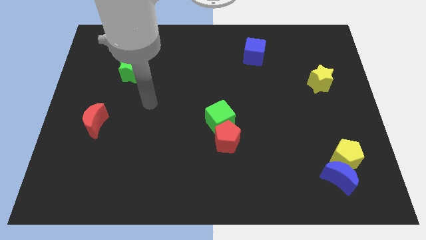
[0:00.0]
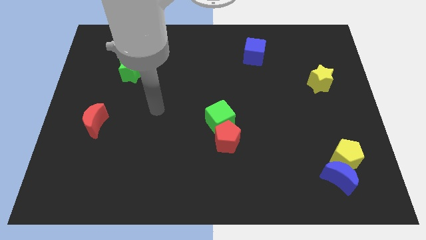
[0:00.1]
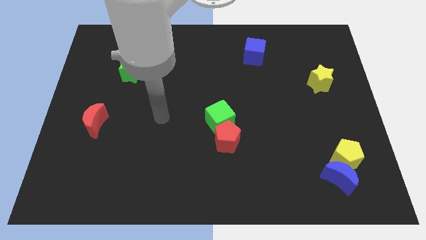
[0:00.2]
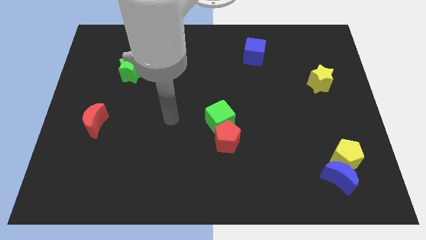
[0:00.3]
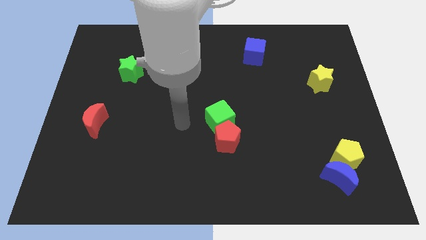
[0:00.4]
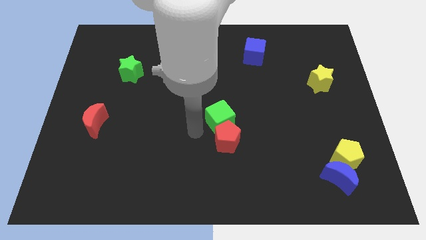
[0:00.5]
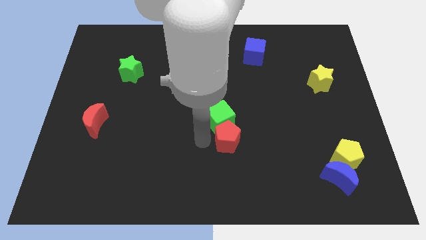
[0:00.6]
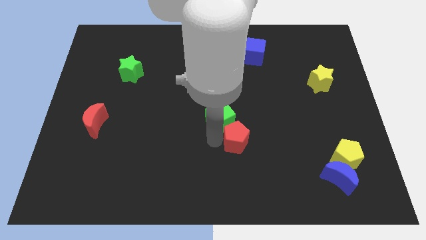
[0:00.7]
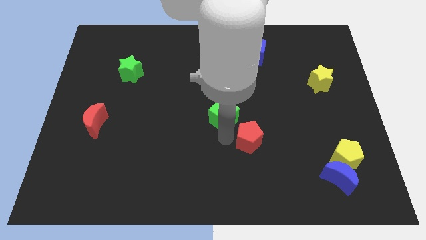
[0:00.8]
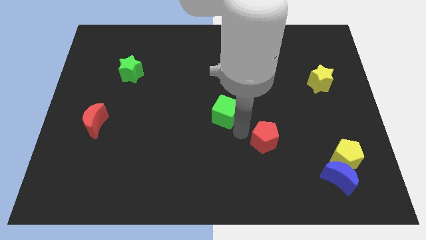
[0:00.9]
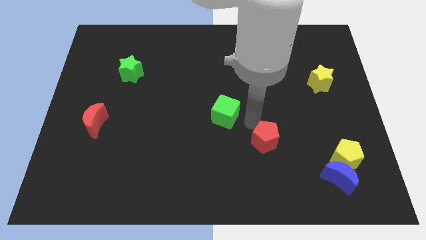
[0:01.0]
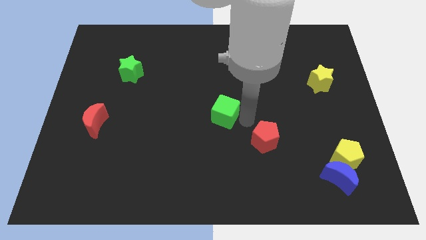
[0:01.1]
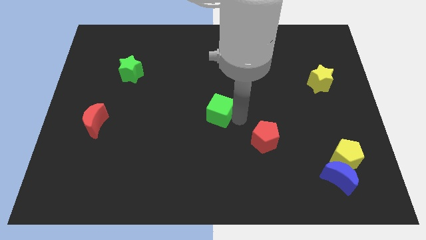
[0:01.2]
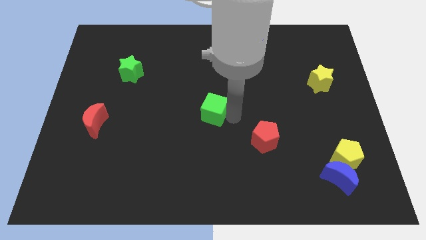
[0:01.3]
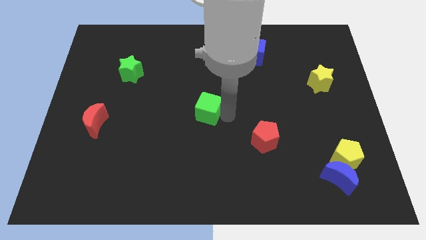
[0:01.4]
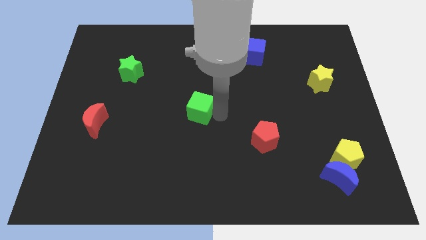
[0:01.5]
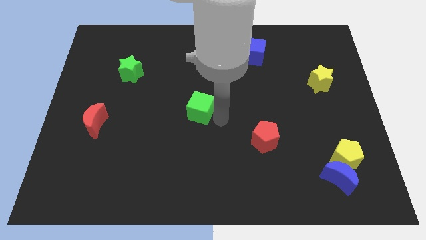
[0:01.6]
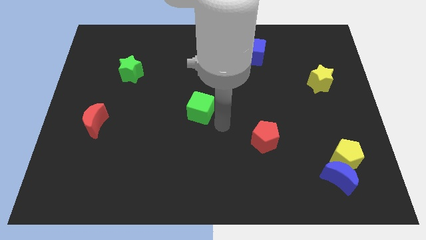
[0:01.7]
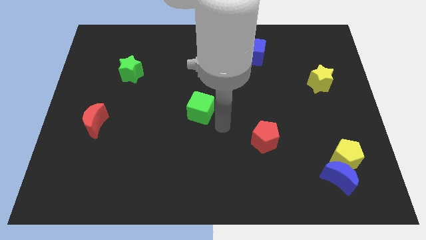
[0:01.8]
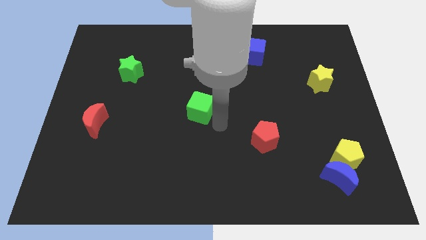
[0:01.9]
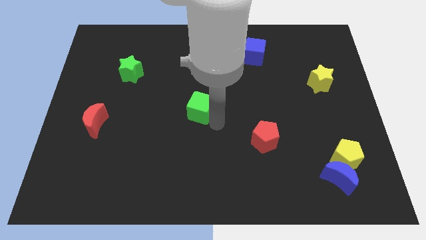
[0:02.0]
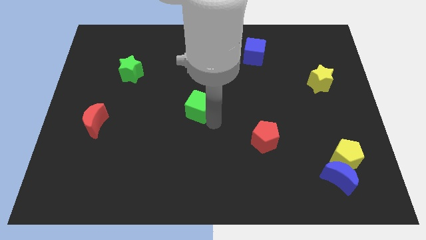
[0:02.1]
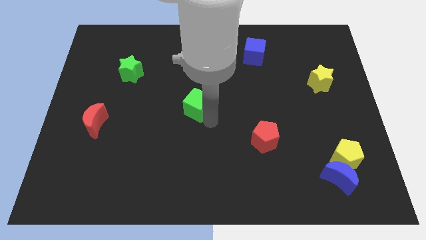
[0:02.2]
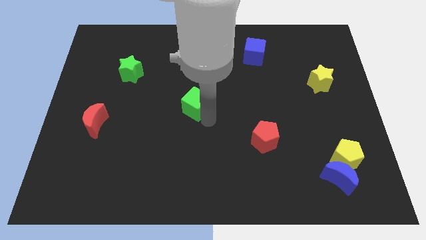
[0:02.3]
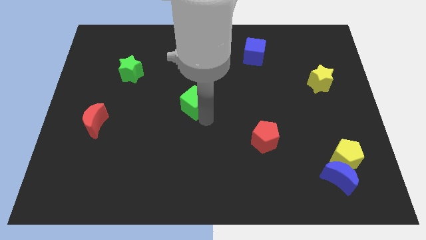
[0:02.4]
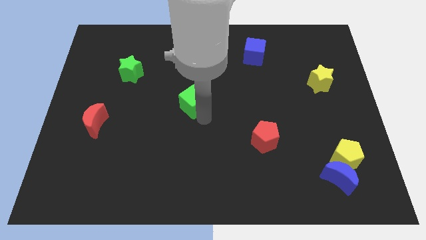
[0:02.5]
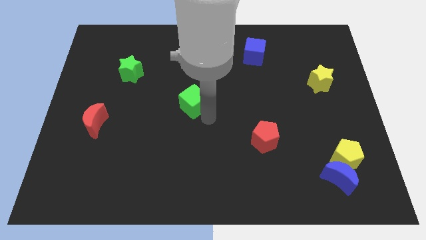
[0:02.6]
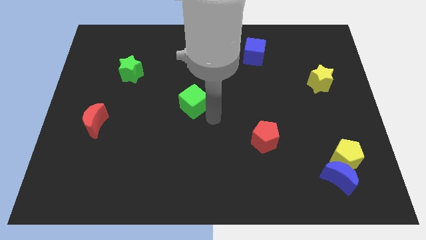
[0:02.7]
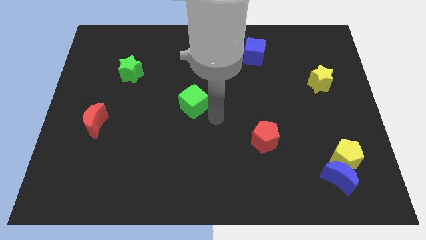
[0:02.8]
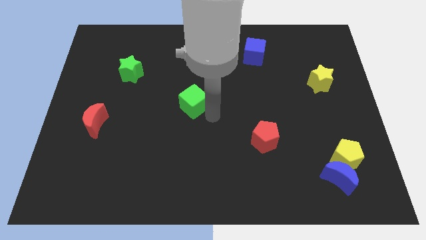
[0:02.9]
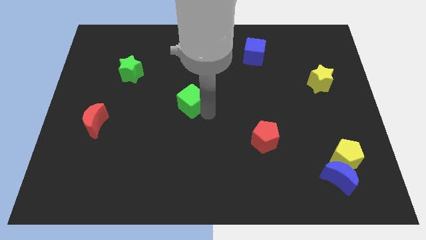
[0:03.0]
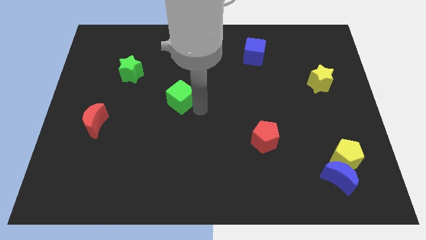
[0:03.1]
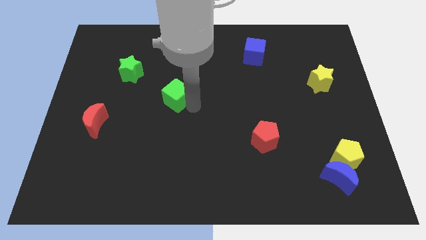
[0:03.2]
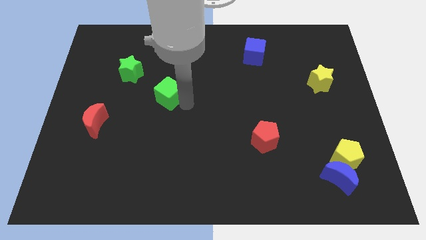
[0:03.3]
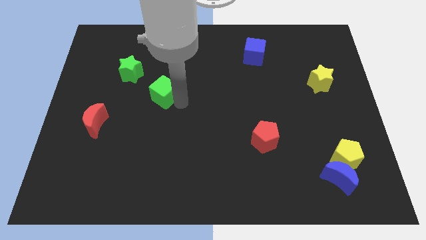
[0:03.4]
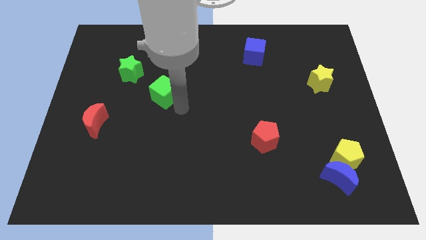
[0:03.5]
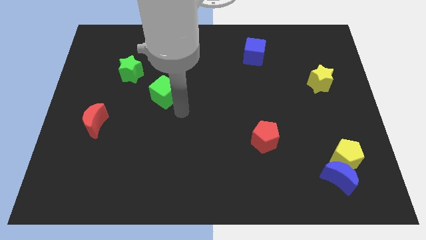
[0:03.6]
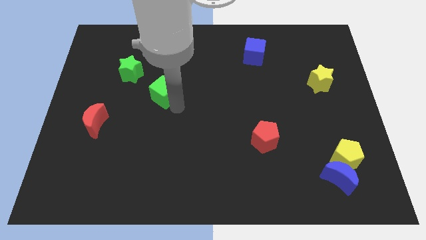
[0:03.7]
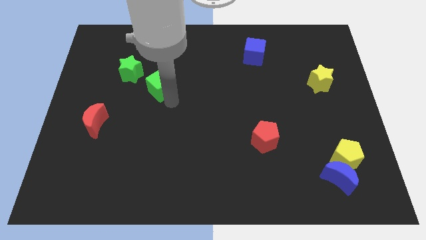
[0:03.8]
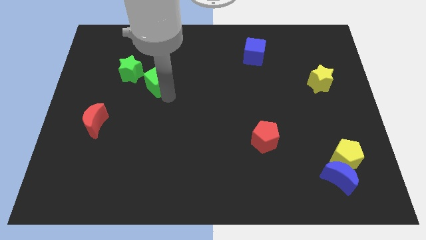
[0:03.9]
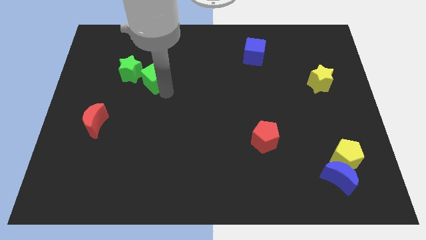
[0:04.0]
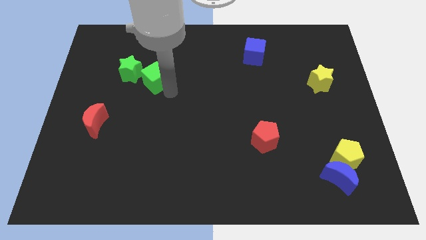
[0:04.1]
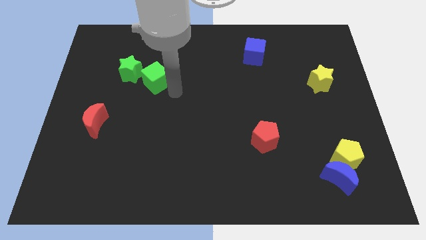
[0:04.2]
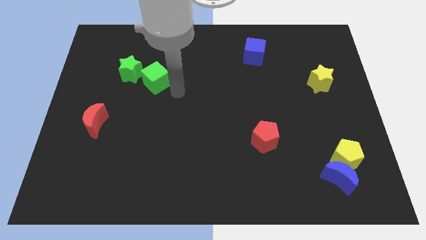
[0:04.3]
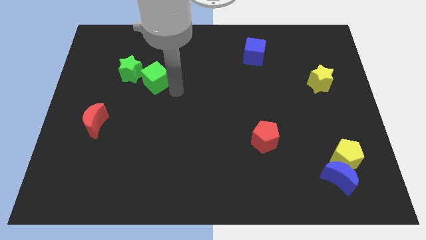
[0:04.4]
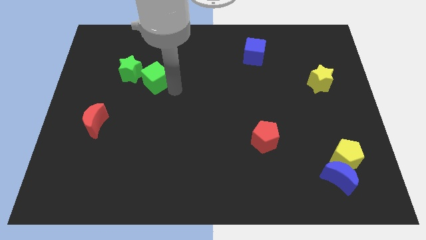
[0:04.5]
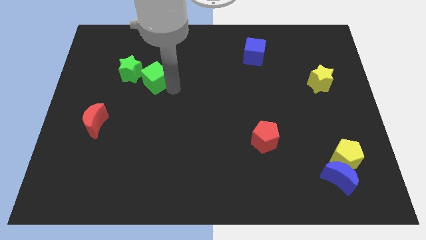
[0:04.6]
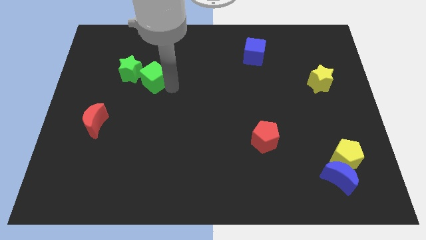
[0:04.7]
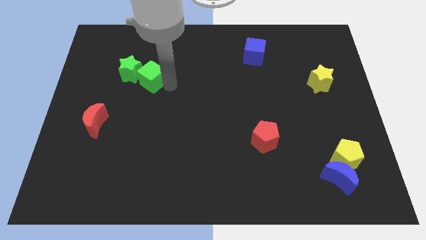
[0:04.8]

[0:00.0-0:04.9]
push the green cube towards the green star

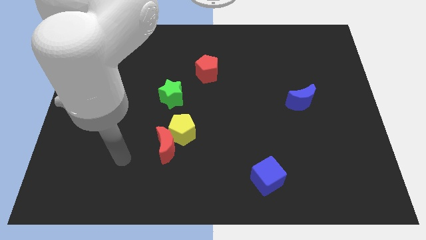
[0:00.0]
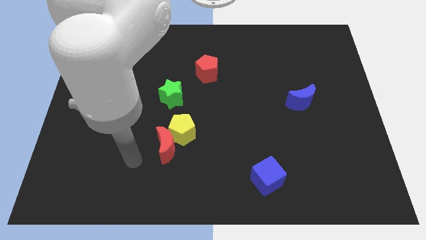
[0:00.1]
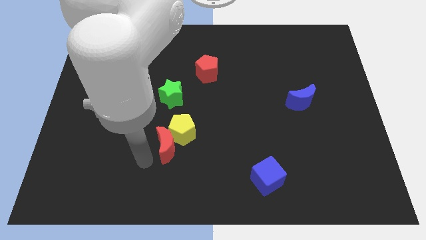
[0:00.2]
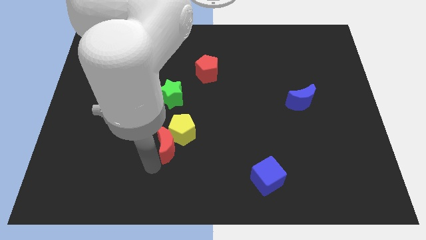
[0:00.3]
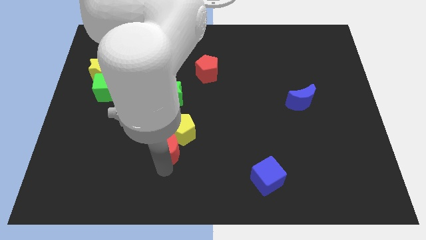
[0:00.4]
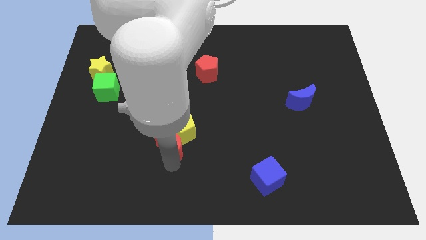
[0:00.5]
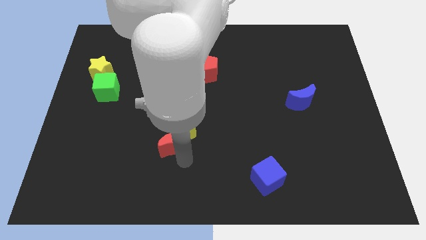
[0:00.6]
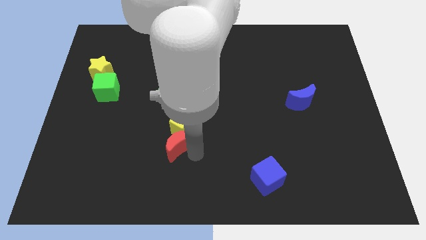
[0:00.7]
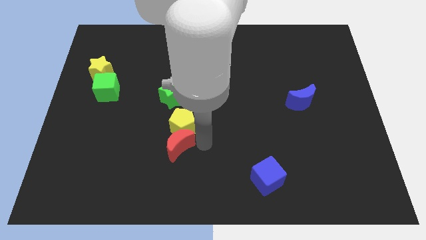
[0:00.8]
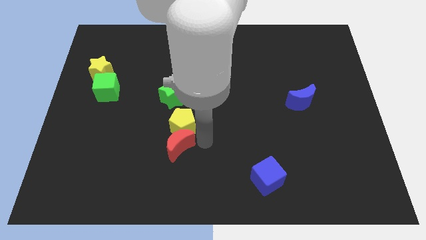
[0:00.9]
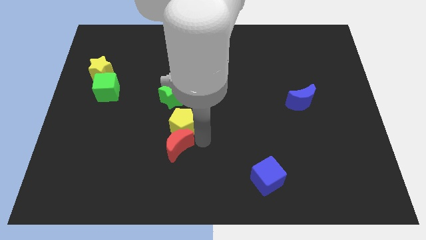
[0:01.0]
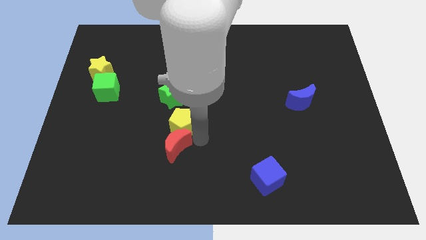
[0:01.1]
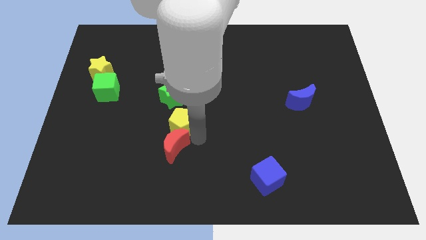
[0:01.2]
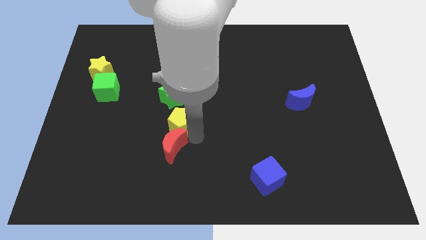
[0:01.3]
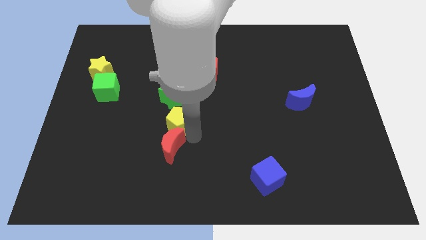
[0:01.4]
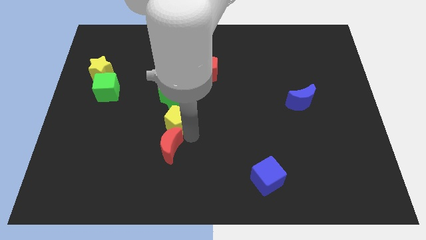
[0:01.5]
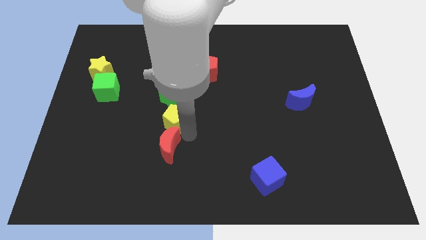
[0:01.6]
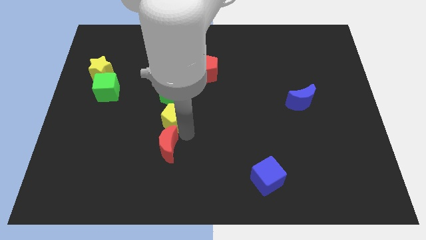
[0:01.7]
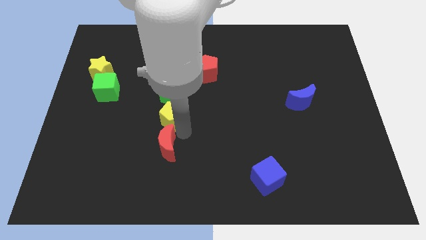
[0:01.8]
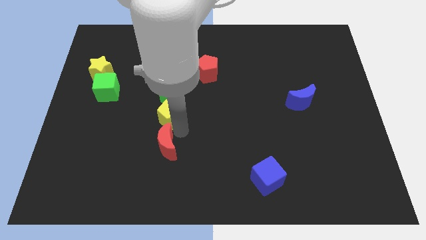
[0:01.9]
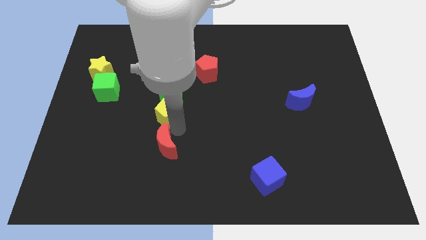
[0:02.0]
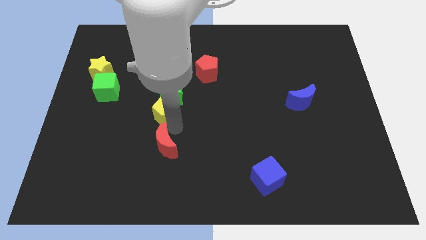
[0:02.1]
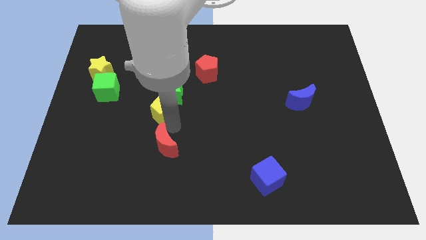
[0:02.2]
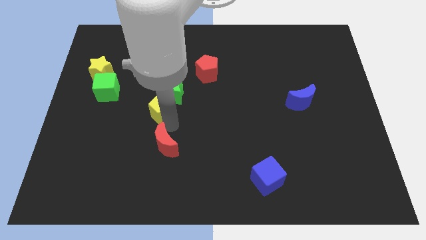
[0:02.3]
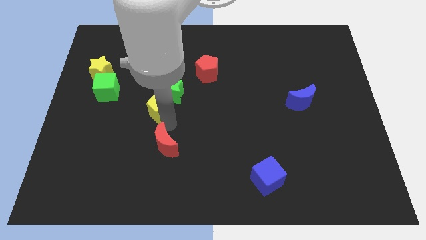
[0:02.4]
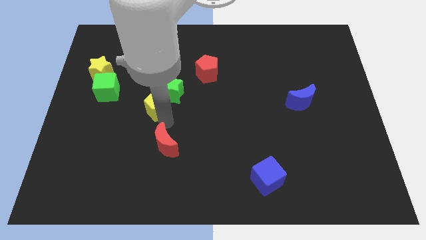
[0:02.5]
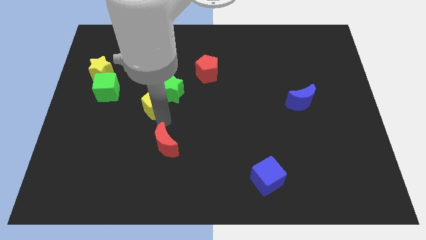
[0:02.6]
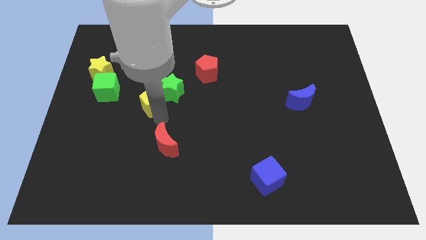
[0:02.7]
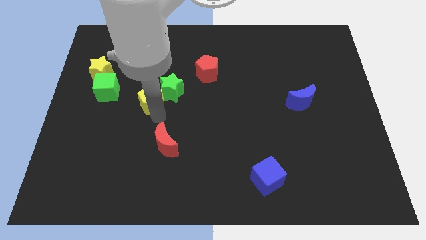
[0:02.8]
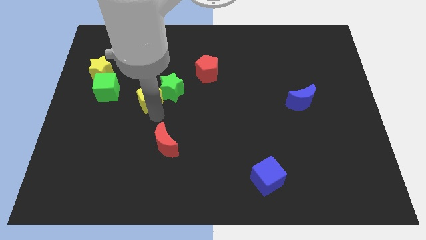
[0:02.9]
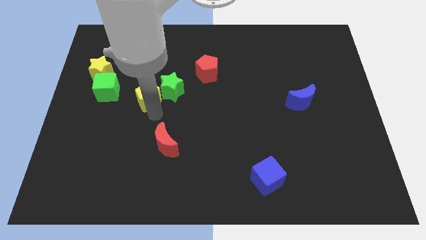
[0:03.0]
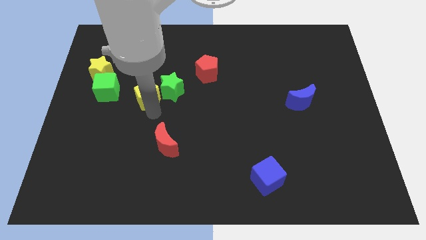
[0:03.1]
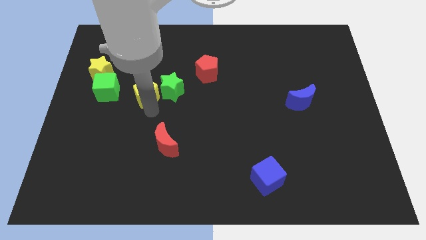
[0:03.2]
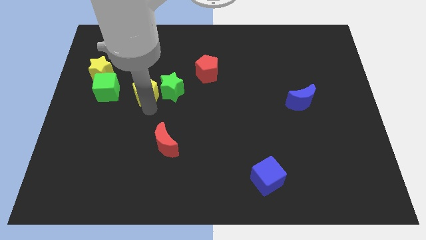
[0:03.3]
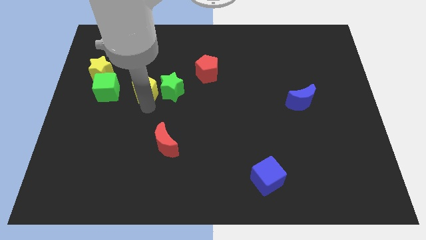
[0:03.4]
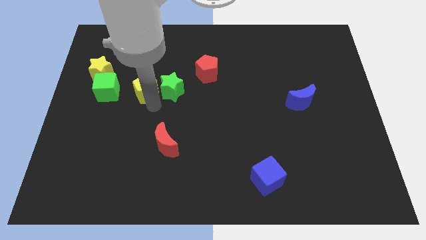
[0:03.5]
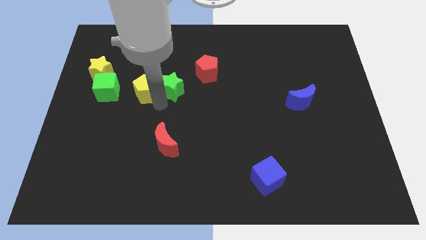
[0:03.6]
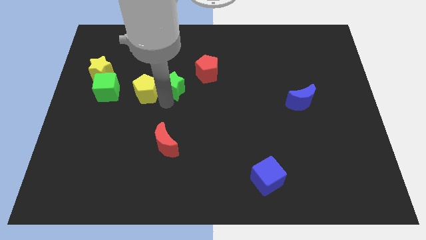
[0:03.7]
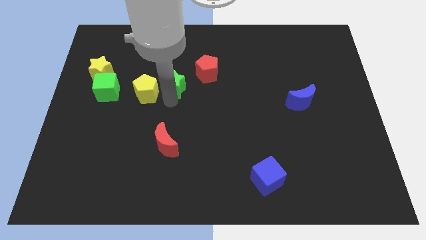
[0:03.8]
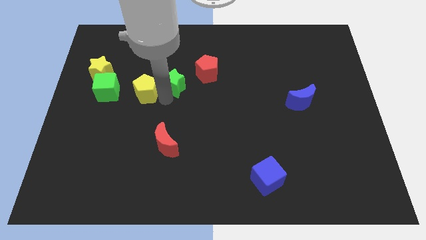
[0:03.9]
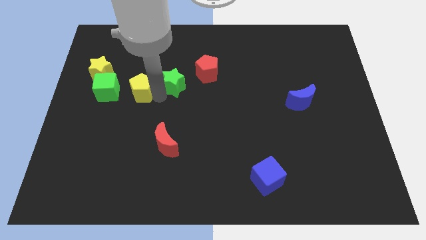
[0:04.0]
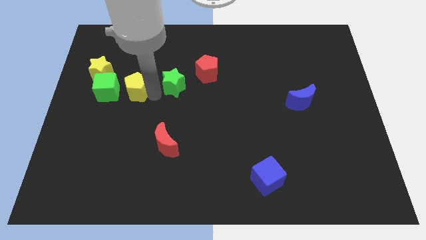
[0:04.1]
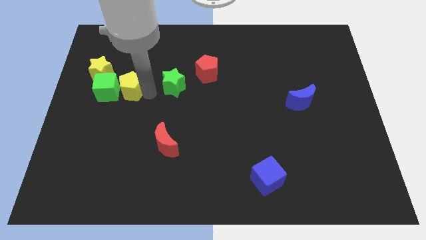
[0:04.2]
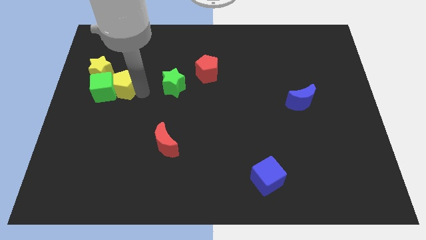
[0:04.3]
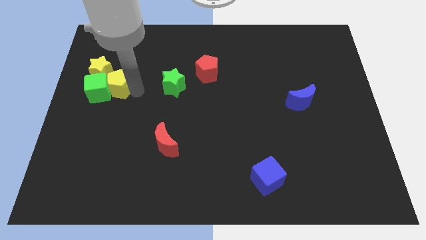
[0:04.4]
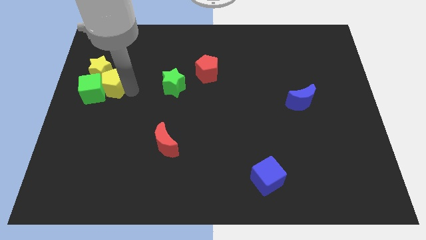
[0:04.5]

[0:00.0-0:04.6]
put the yellow pentagon towards the yellow star
